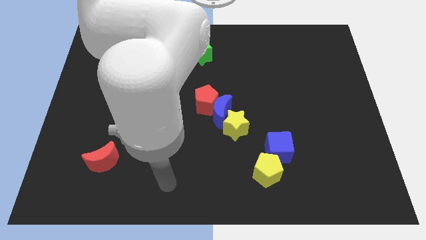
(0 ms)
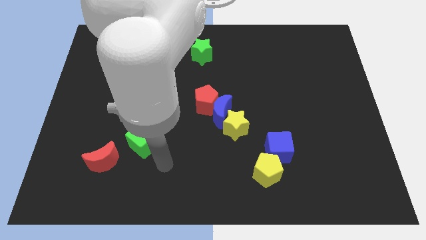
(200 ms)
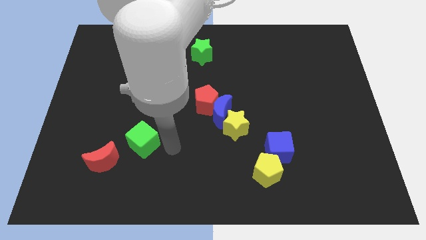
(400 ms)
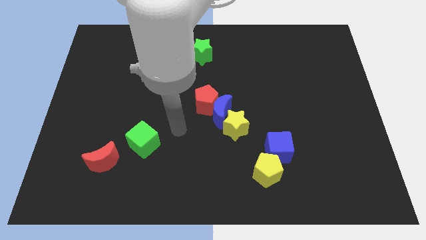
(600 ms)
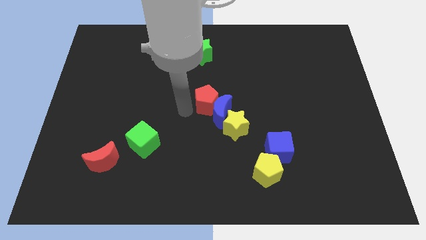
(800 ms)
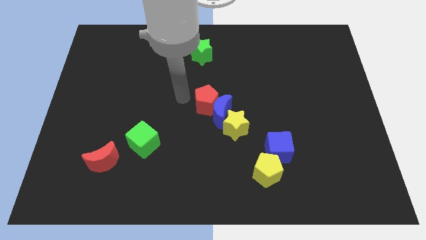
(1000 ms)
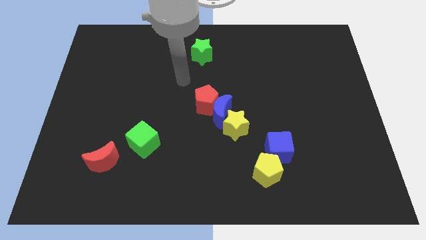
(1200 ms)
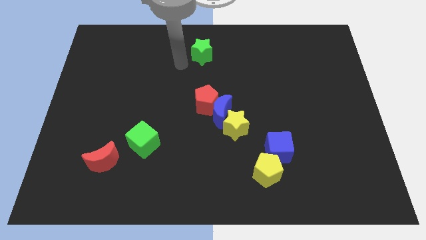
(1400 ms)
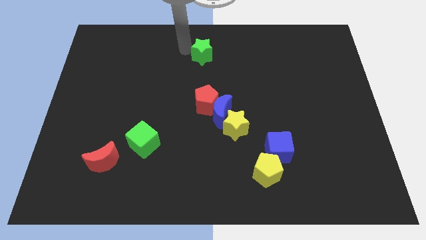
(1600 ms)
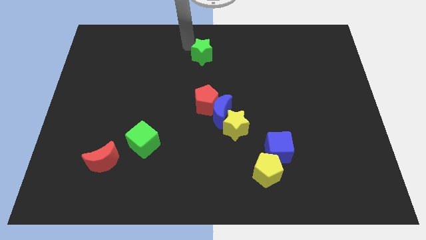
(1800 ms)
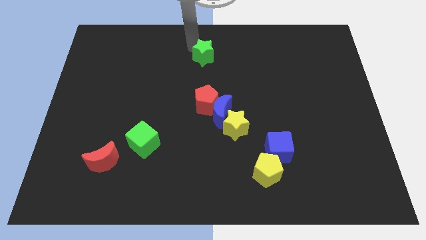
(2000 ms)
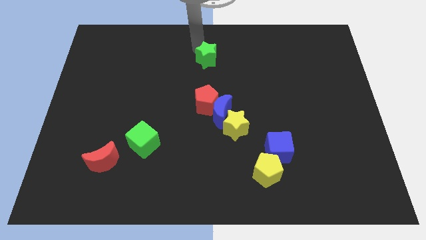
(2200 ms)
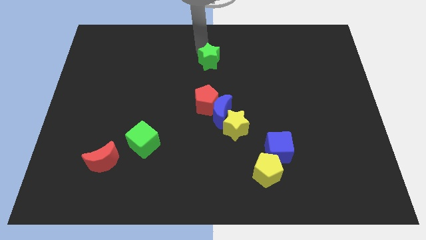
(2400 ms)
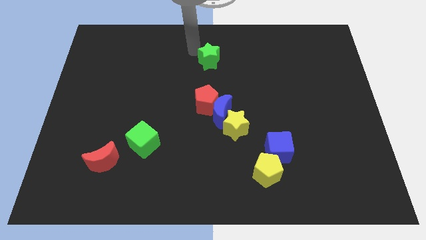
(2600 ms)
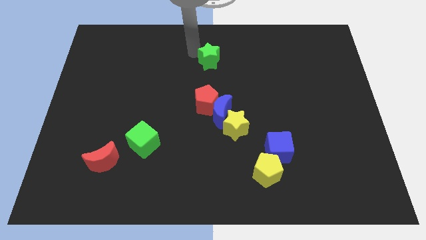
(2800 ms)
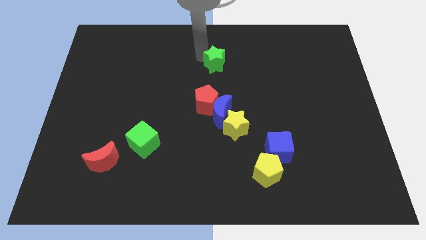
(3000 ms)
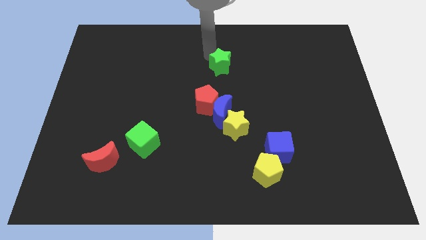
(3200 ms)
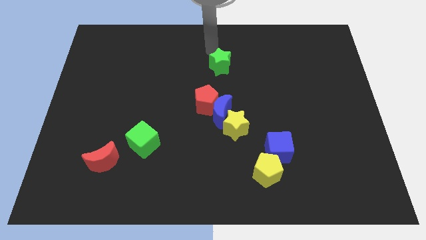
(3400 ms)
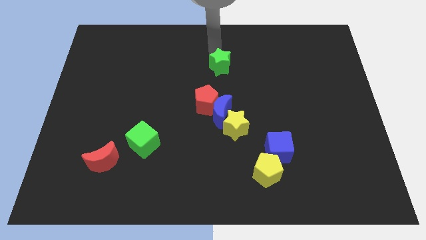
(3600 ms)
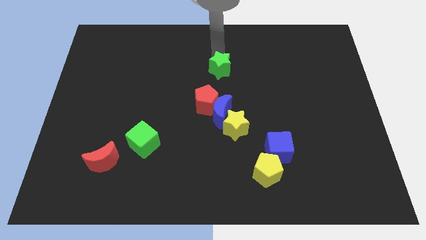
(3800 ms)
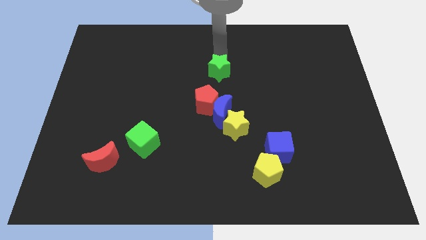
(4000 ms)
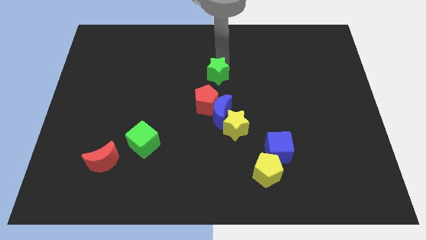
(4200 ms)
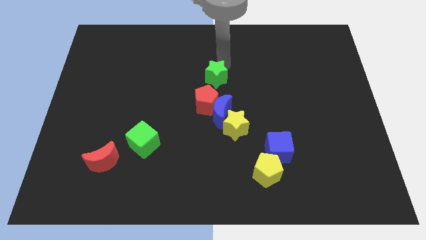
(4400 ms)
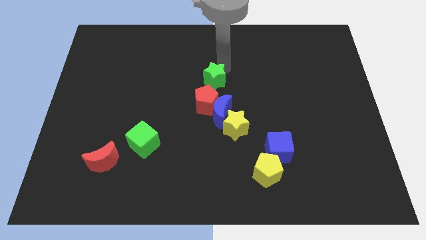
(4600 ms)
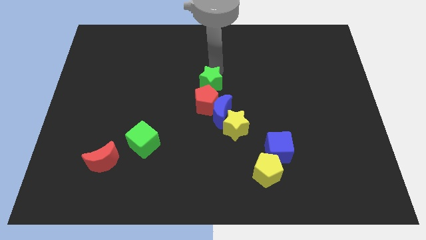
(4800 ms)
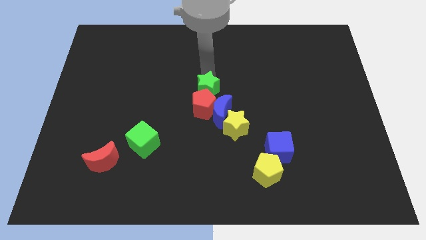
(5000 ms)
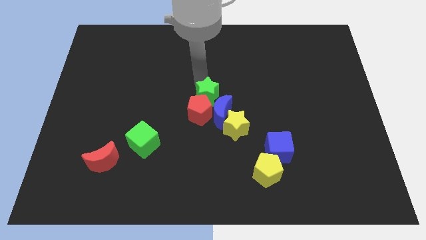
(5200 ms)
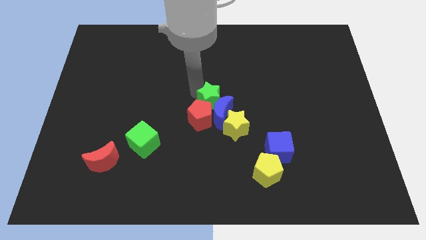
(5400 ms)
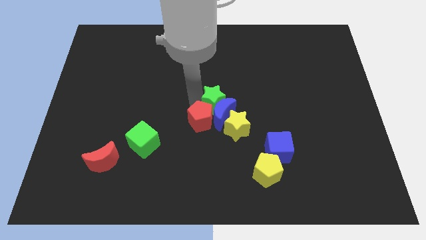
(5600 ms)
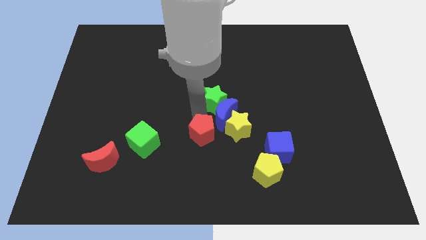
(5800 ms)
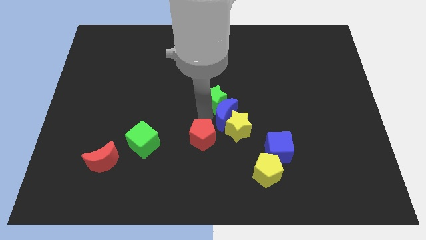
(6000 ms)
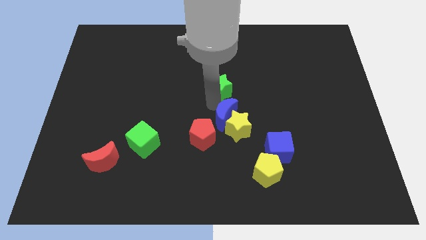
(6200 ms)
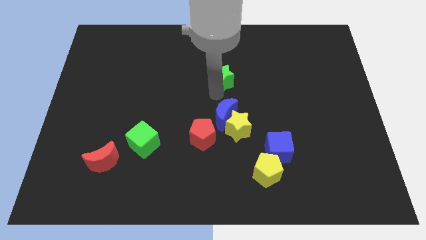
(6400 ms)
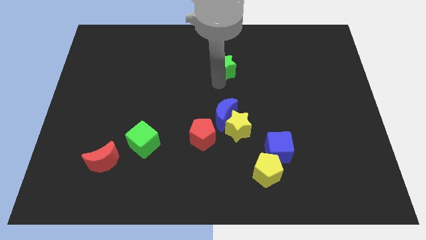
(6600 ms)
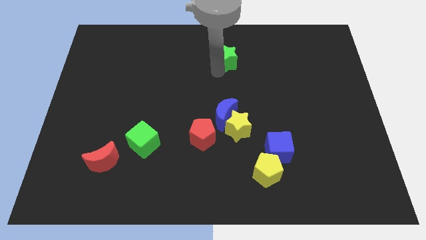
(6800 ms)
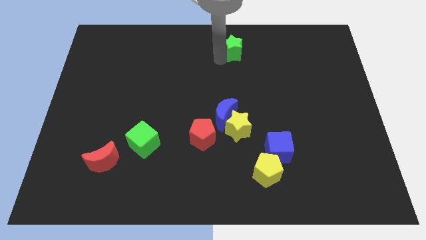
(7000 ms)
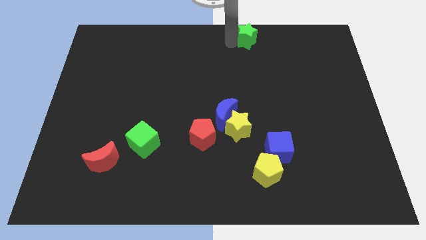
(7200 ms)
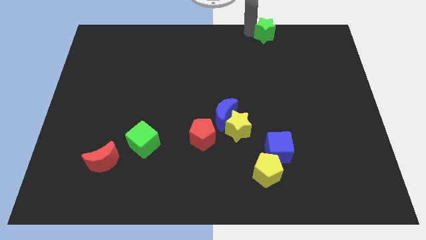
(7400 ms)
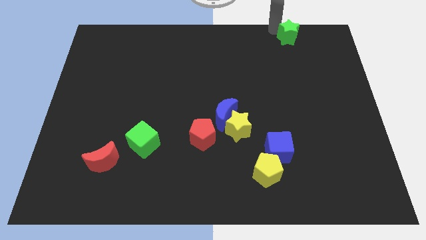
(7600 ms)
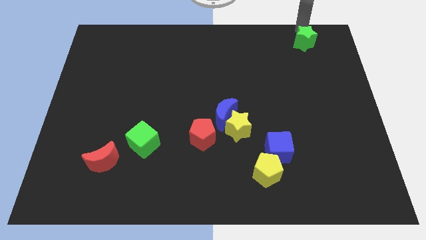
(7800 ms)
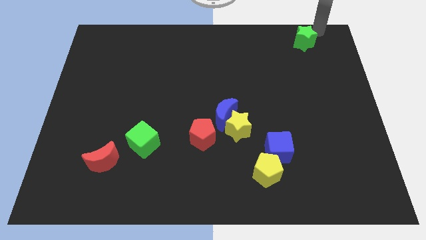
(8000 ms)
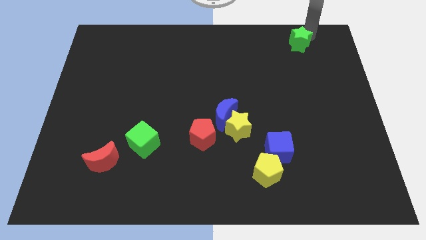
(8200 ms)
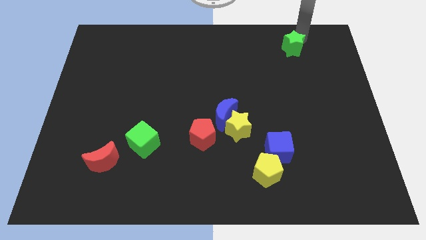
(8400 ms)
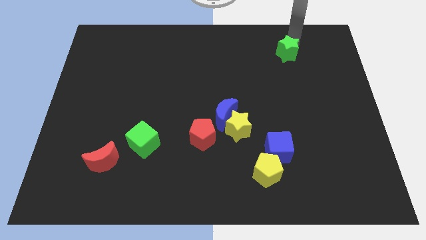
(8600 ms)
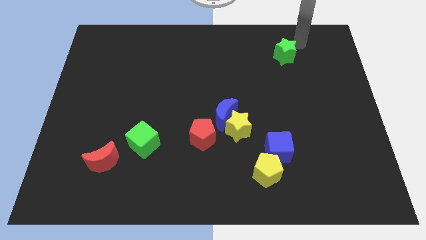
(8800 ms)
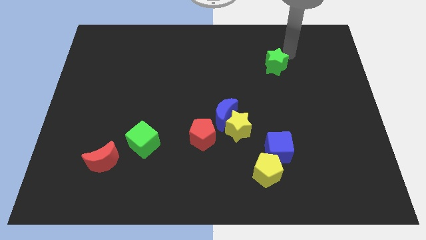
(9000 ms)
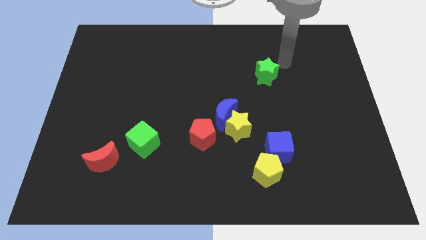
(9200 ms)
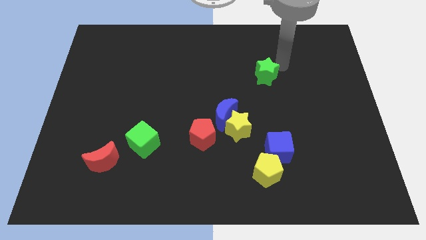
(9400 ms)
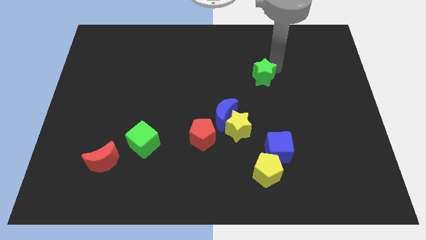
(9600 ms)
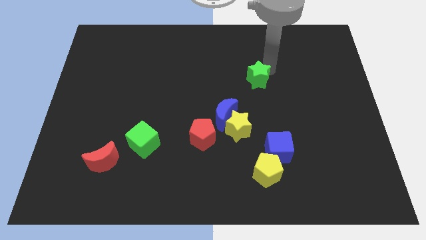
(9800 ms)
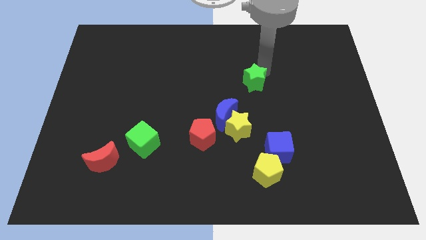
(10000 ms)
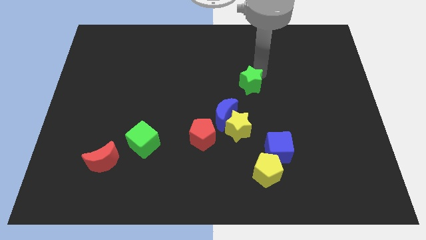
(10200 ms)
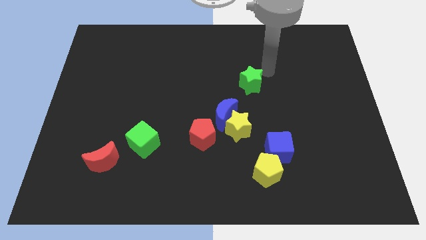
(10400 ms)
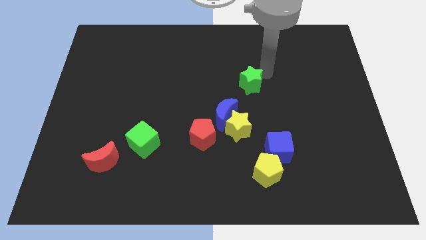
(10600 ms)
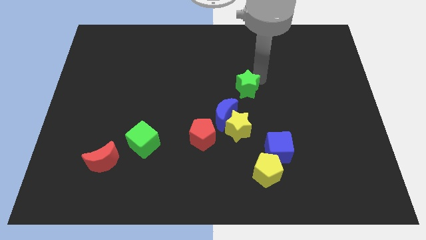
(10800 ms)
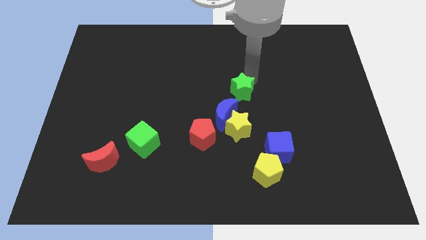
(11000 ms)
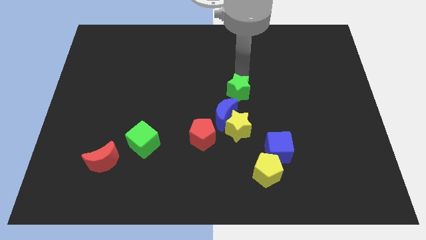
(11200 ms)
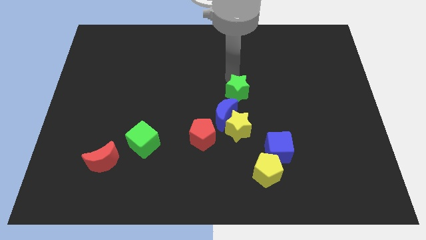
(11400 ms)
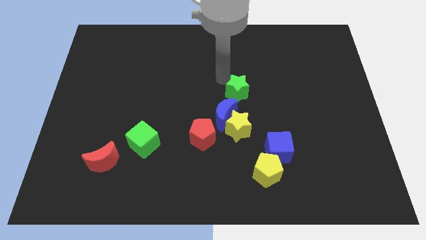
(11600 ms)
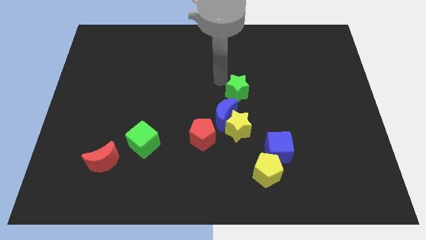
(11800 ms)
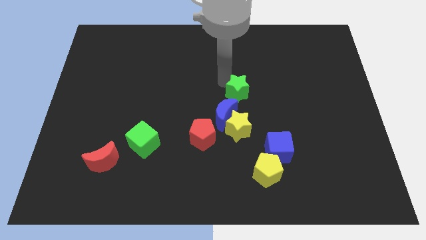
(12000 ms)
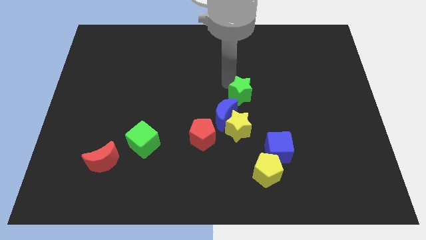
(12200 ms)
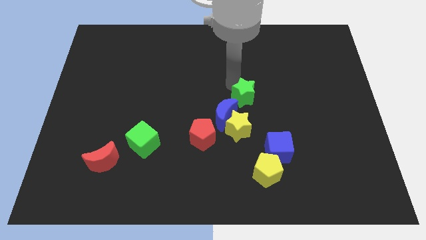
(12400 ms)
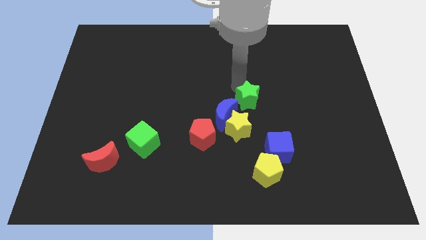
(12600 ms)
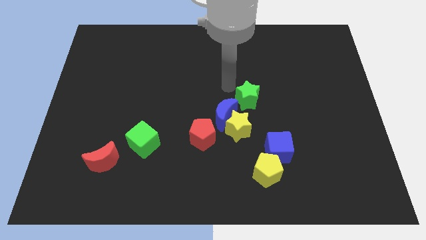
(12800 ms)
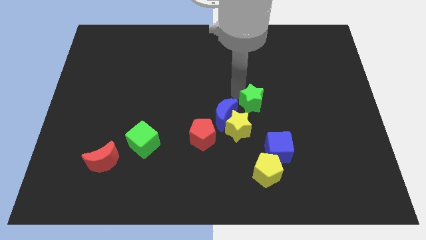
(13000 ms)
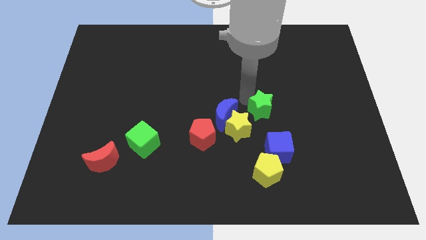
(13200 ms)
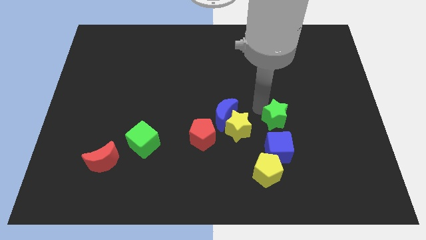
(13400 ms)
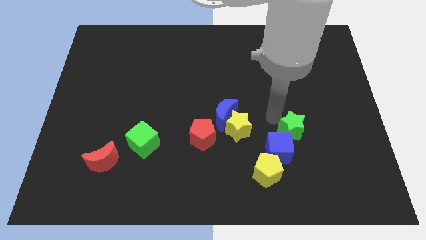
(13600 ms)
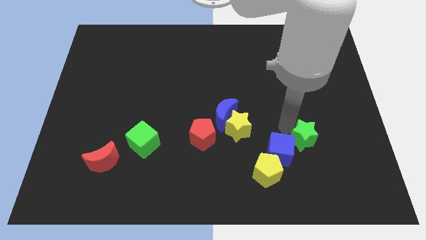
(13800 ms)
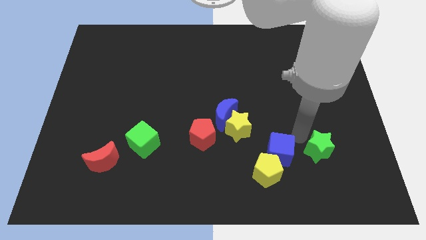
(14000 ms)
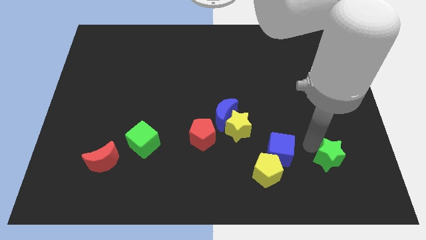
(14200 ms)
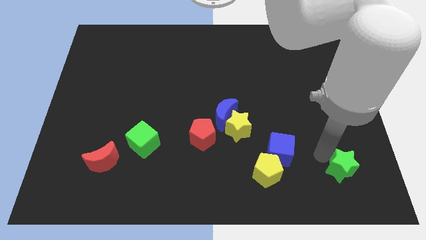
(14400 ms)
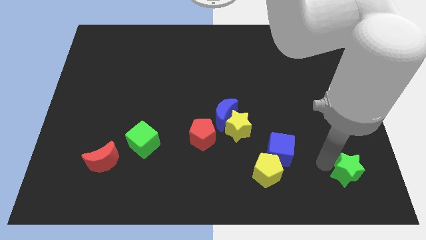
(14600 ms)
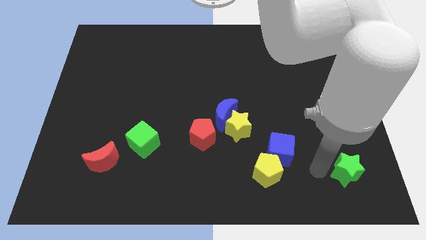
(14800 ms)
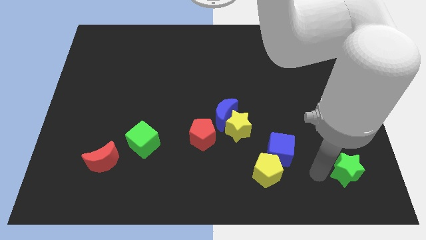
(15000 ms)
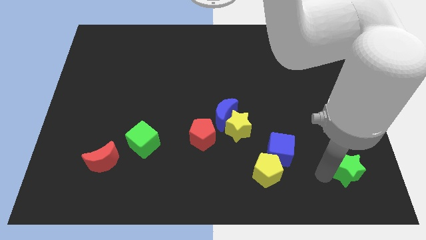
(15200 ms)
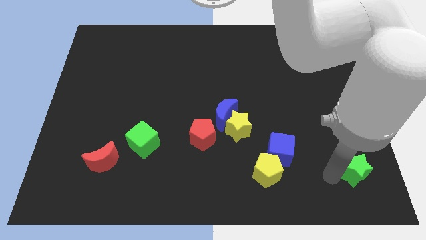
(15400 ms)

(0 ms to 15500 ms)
put the green star to the lower right corner
